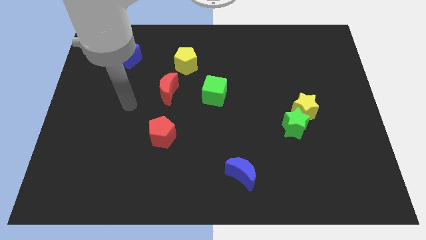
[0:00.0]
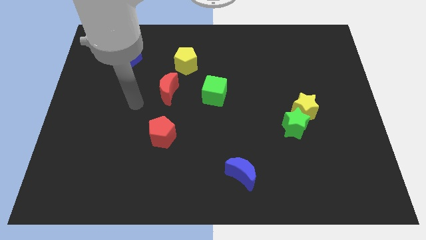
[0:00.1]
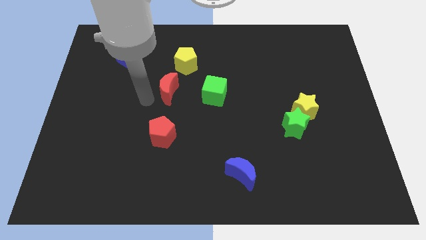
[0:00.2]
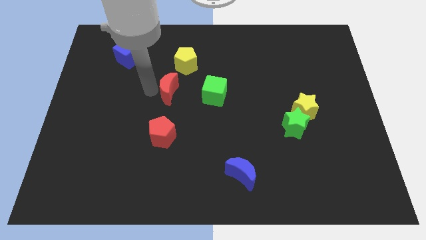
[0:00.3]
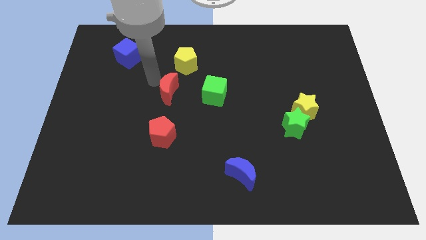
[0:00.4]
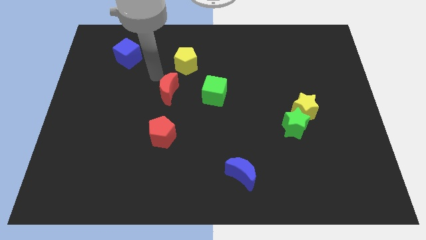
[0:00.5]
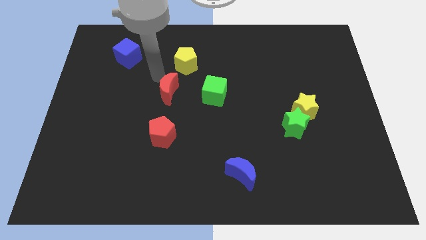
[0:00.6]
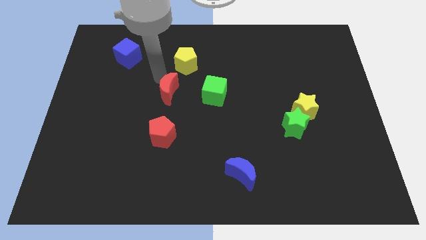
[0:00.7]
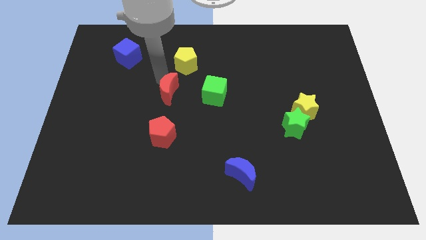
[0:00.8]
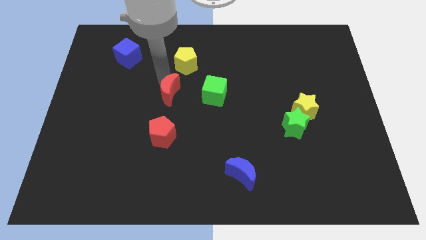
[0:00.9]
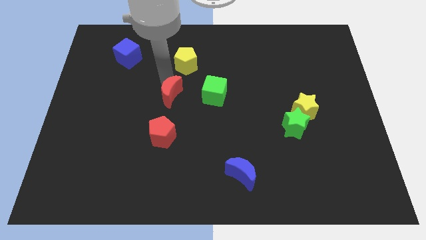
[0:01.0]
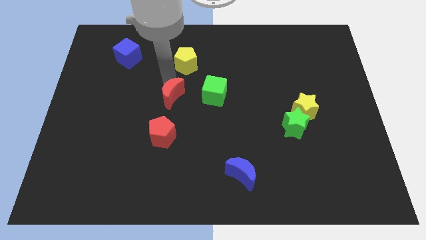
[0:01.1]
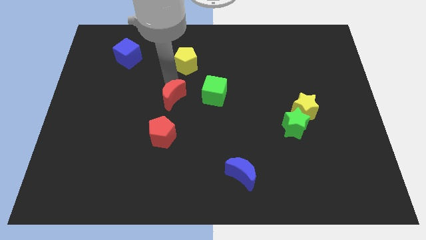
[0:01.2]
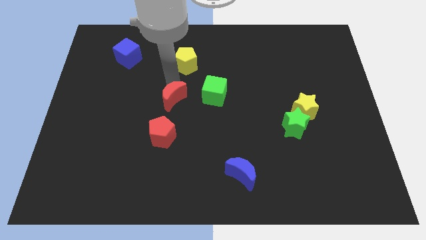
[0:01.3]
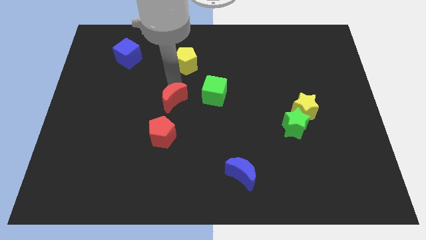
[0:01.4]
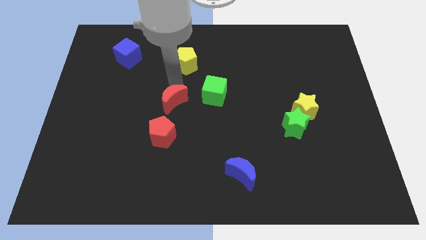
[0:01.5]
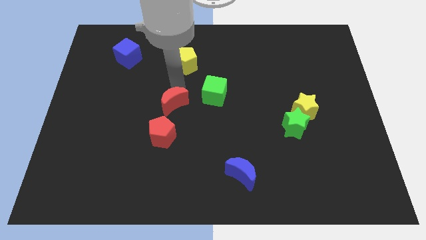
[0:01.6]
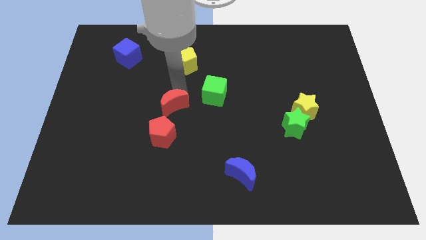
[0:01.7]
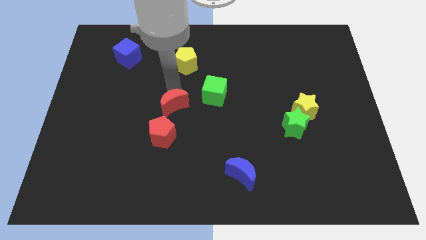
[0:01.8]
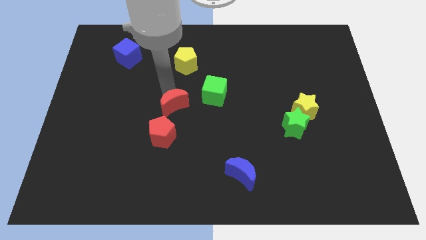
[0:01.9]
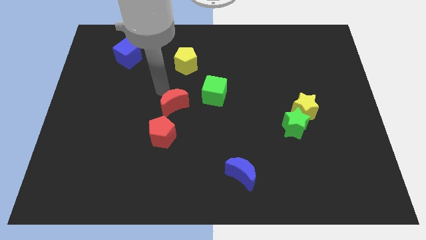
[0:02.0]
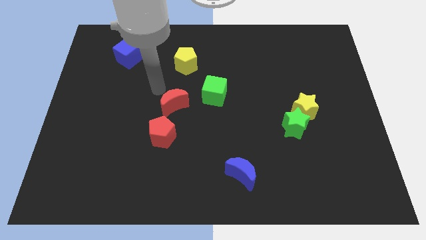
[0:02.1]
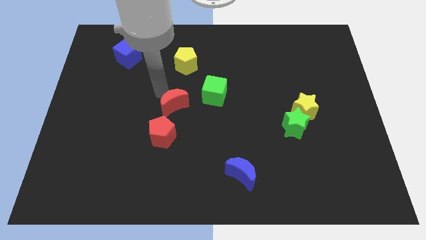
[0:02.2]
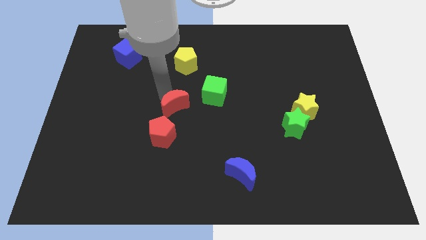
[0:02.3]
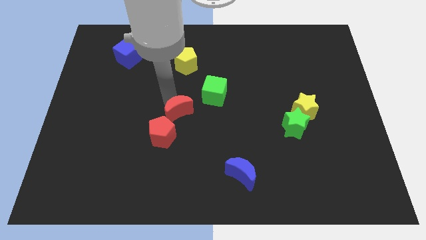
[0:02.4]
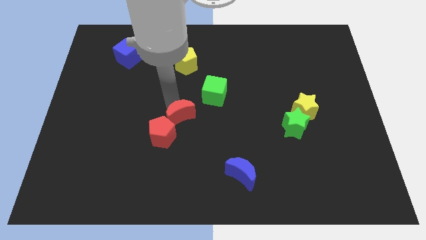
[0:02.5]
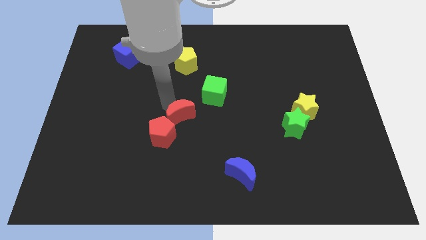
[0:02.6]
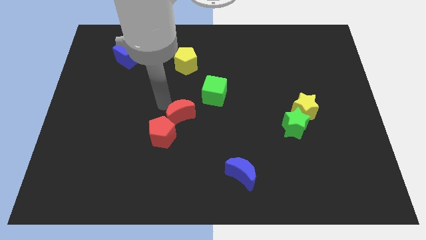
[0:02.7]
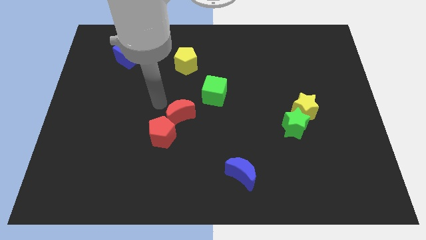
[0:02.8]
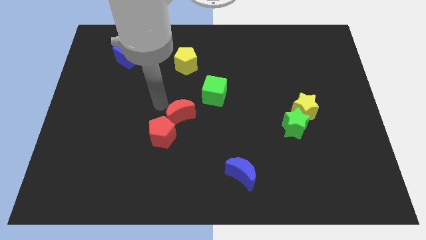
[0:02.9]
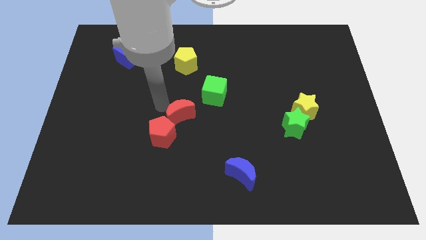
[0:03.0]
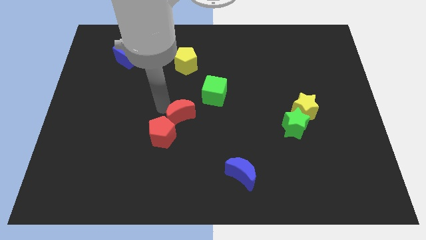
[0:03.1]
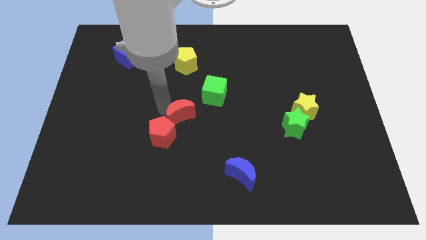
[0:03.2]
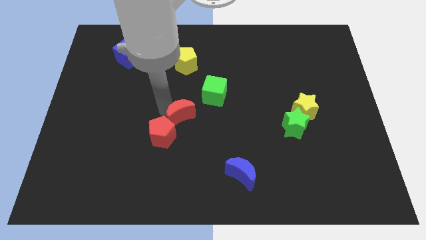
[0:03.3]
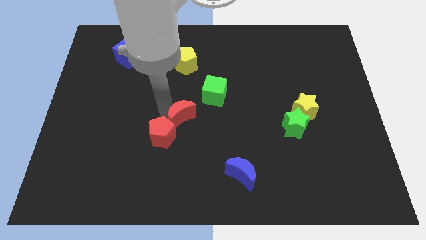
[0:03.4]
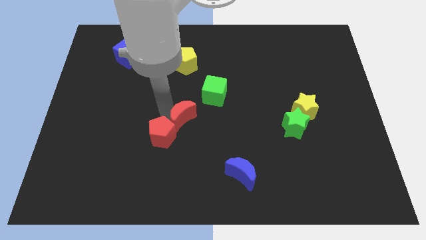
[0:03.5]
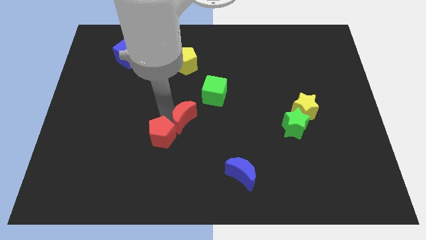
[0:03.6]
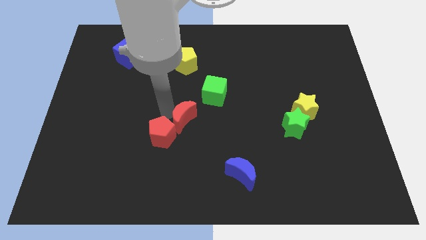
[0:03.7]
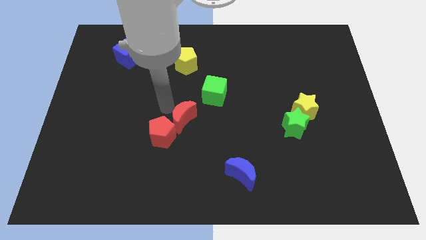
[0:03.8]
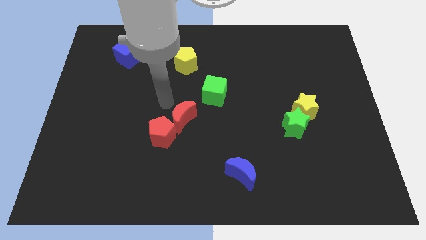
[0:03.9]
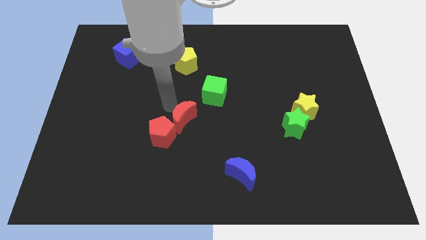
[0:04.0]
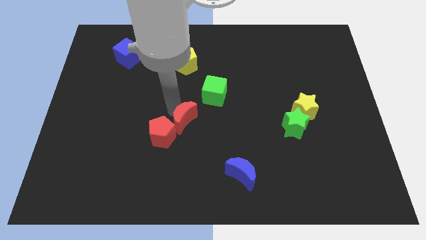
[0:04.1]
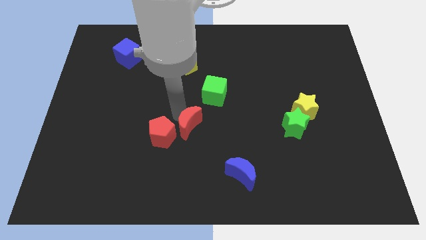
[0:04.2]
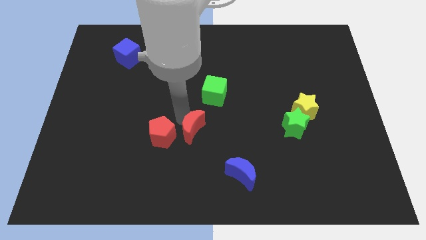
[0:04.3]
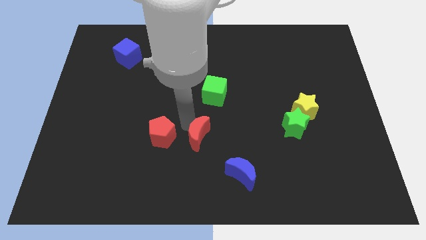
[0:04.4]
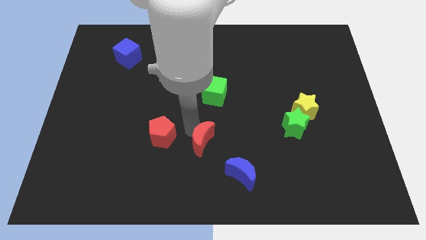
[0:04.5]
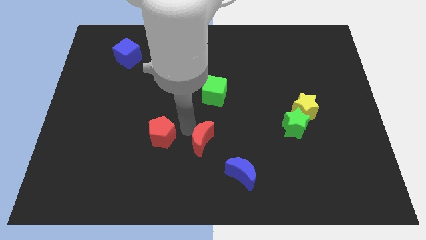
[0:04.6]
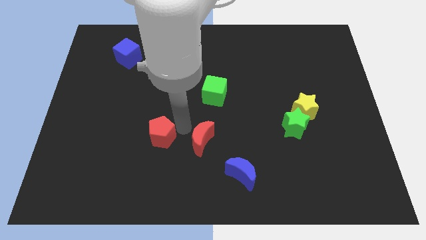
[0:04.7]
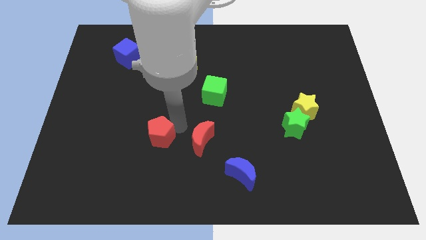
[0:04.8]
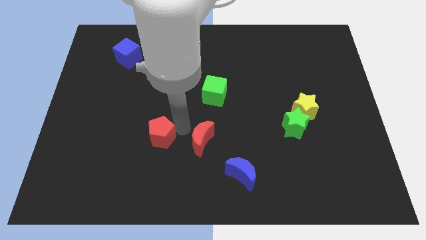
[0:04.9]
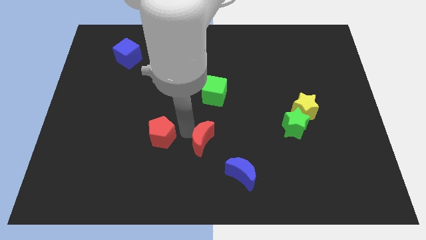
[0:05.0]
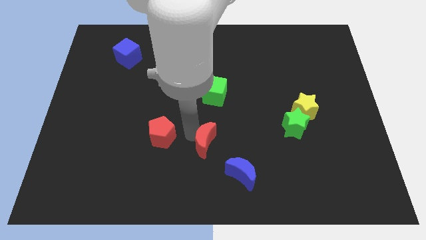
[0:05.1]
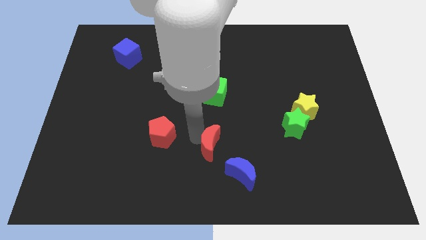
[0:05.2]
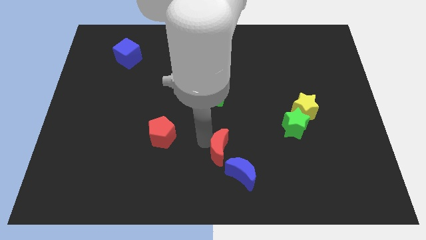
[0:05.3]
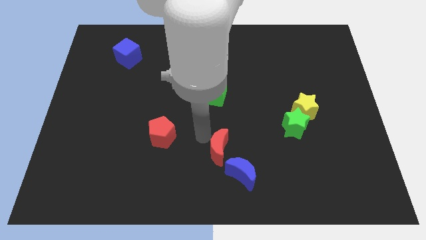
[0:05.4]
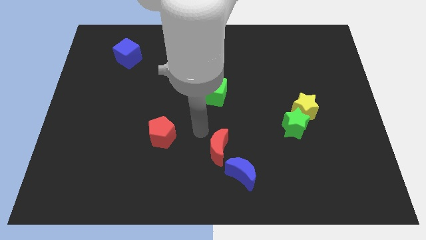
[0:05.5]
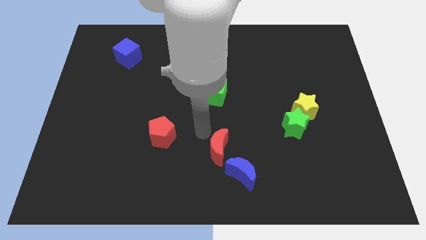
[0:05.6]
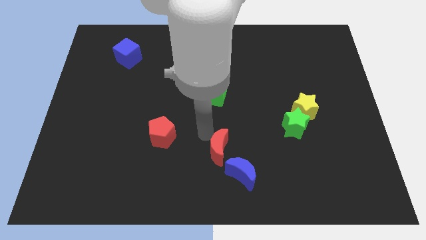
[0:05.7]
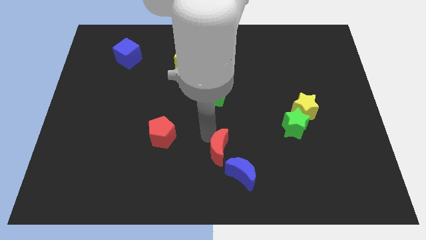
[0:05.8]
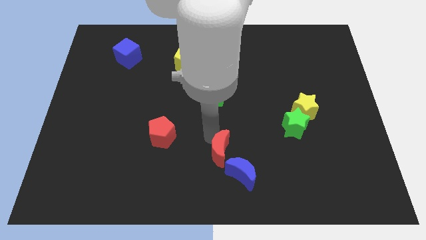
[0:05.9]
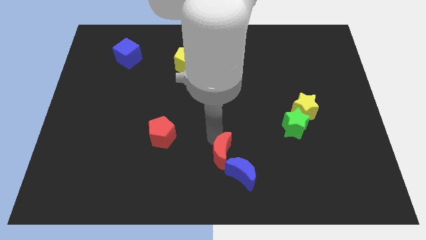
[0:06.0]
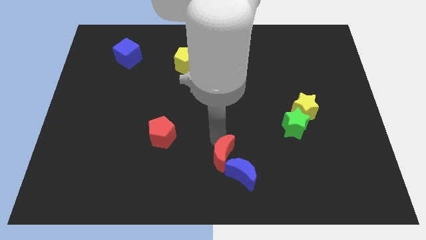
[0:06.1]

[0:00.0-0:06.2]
push the red moon to the blue moon

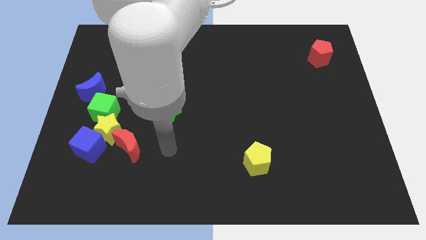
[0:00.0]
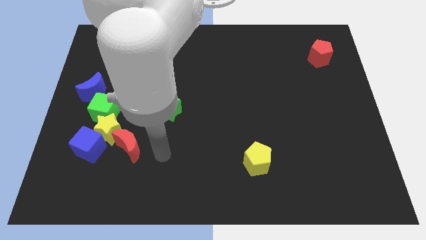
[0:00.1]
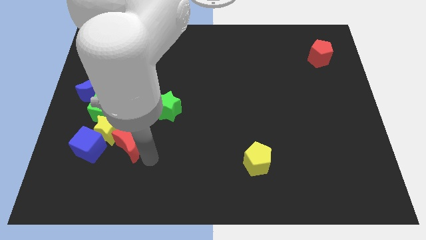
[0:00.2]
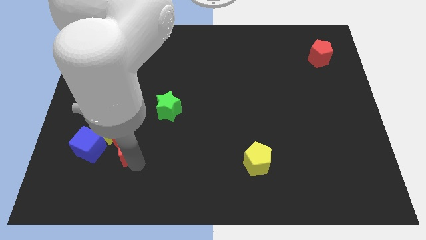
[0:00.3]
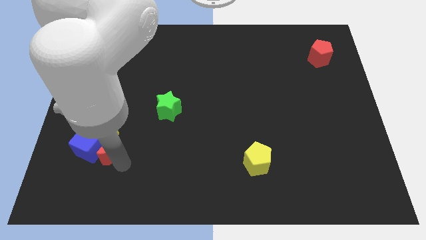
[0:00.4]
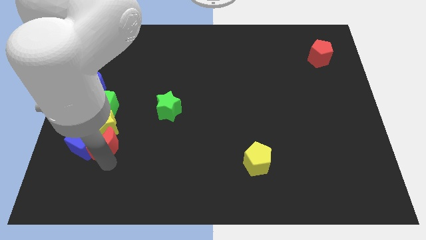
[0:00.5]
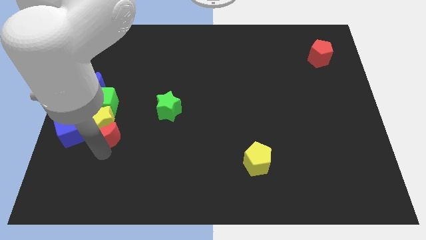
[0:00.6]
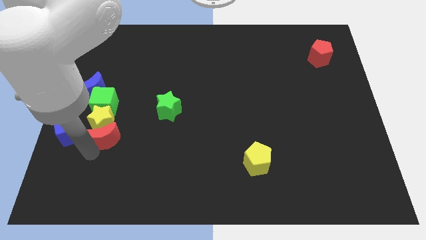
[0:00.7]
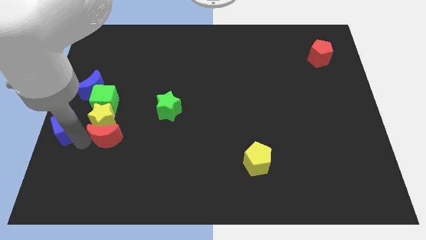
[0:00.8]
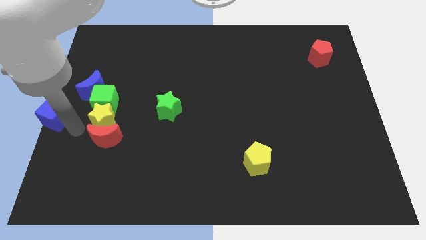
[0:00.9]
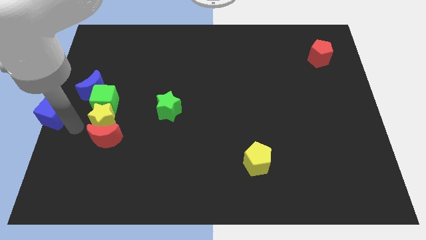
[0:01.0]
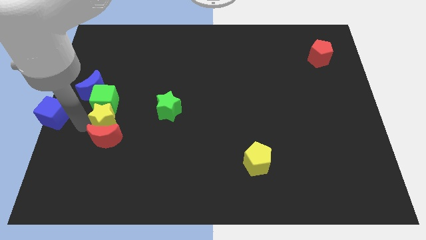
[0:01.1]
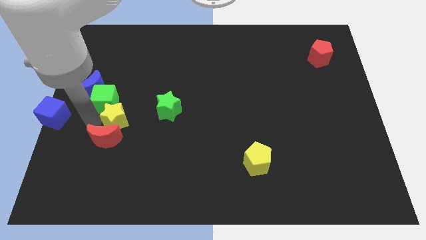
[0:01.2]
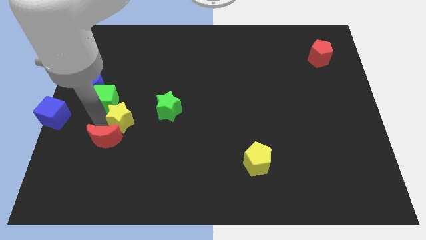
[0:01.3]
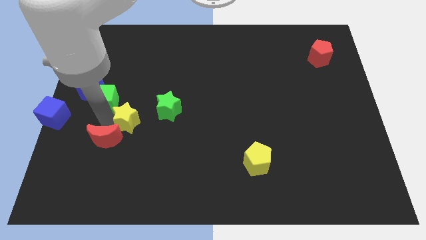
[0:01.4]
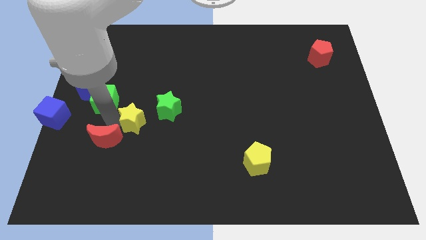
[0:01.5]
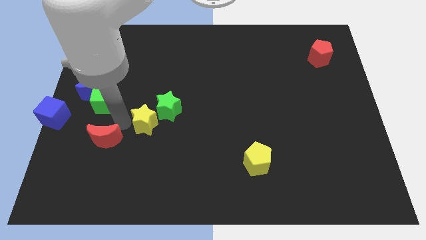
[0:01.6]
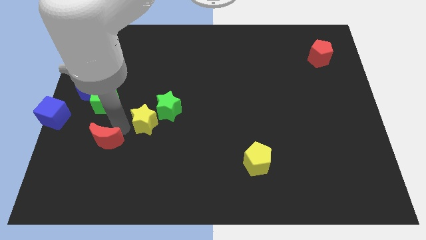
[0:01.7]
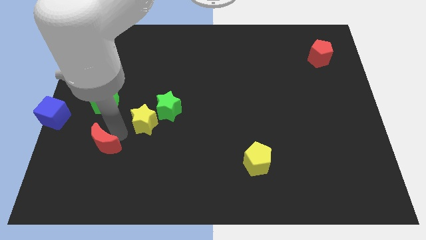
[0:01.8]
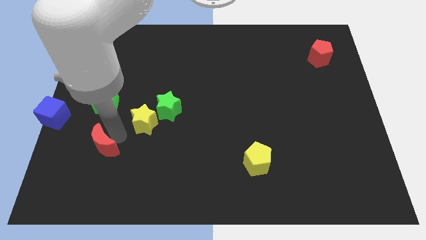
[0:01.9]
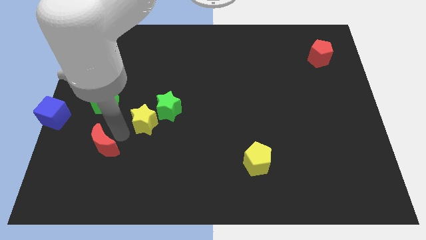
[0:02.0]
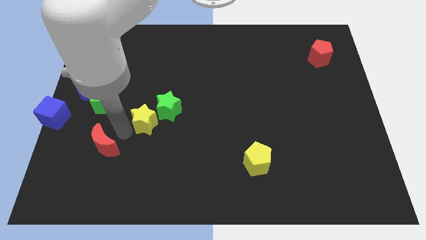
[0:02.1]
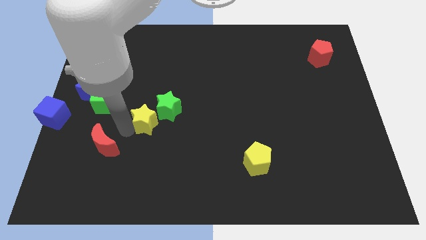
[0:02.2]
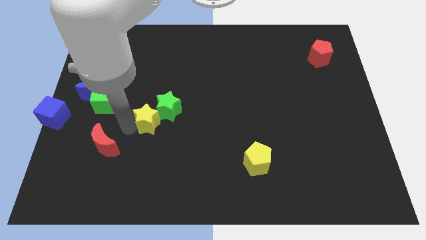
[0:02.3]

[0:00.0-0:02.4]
push the yellow star towards the green star
